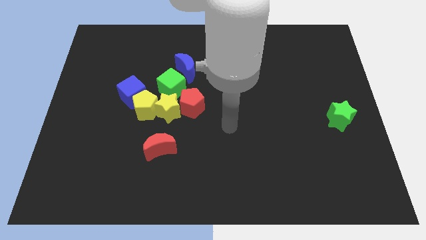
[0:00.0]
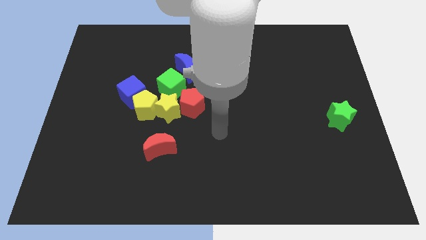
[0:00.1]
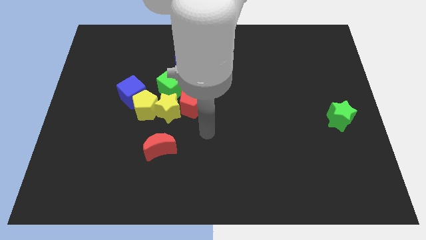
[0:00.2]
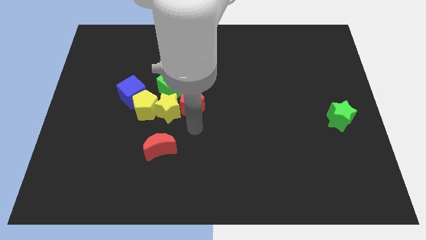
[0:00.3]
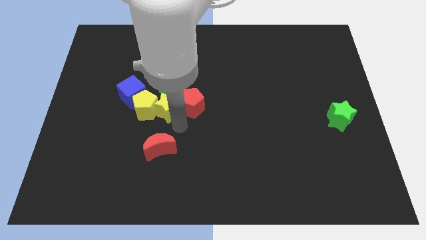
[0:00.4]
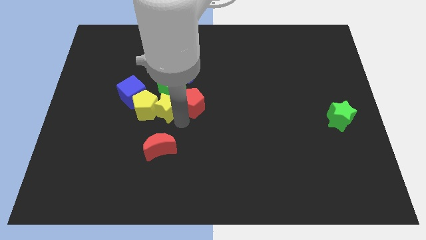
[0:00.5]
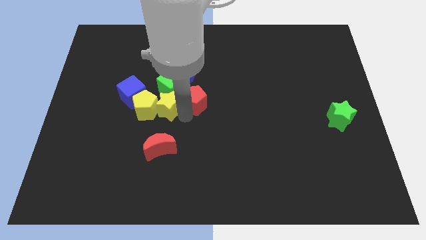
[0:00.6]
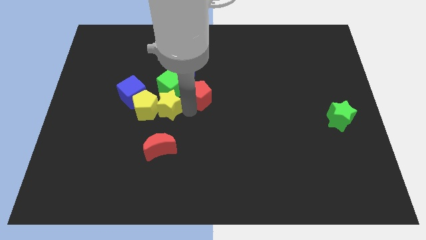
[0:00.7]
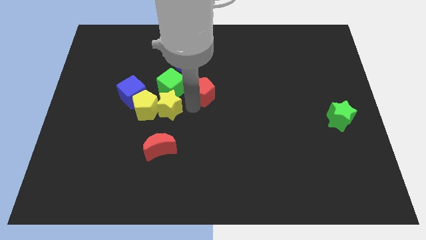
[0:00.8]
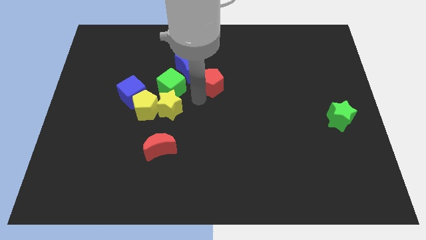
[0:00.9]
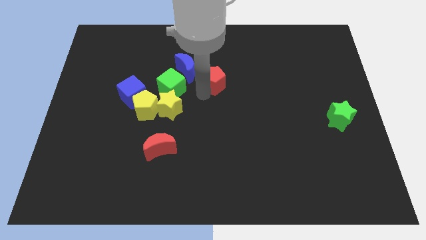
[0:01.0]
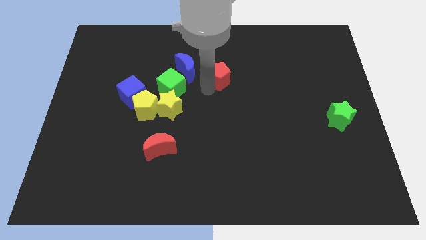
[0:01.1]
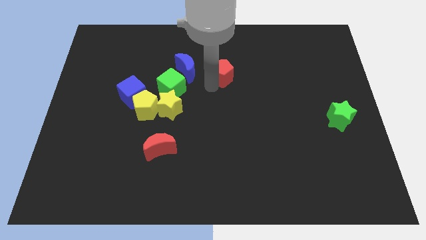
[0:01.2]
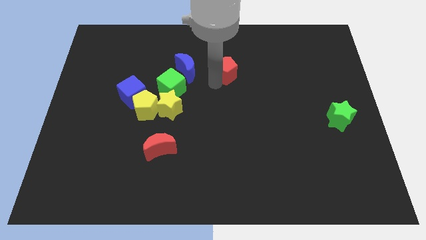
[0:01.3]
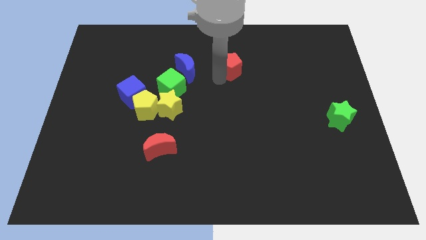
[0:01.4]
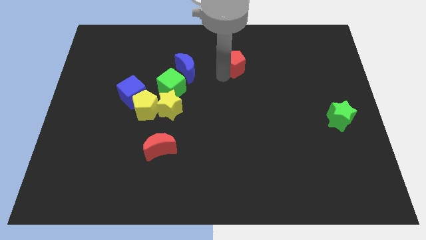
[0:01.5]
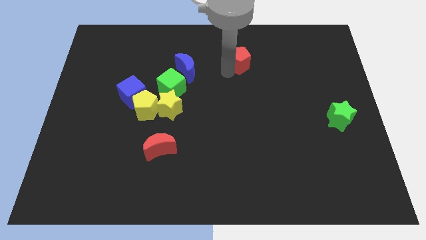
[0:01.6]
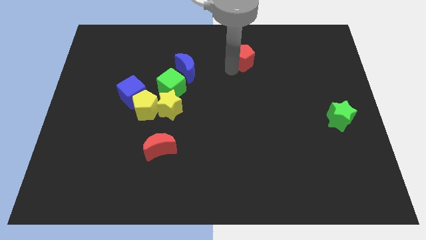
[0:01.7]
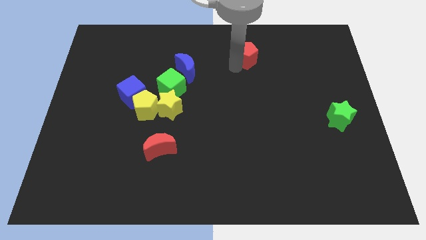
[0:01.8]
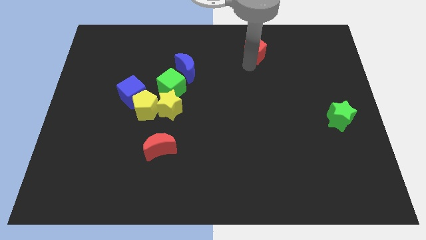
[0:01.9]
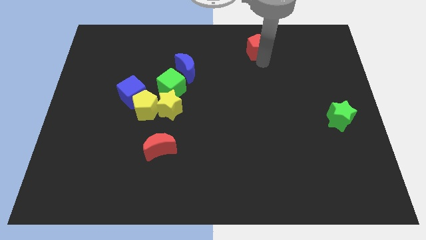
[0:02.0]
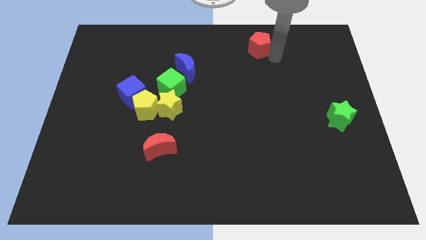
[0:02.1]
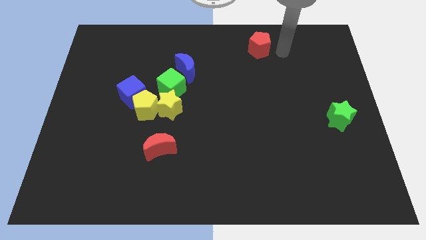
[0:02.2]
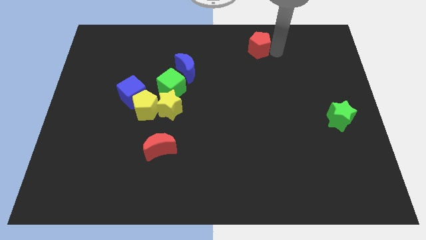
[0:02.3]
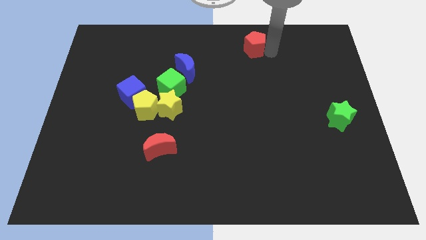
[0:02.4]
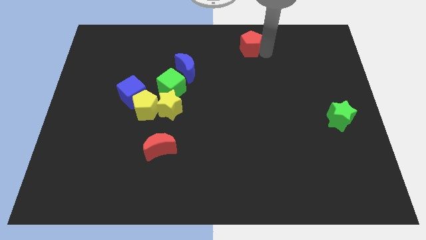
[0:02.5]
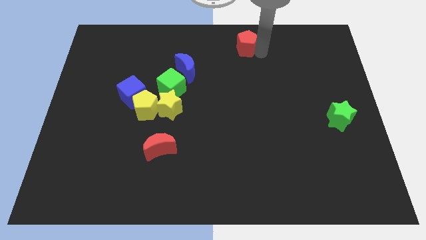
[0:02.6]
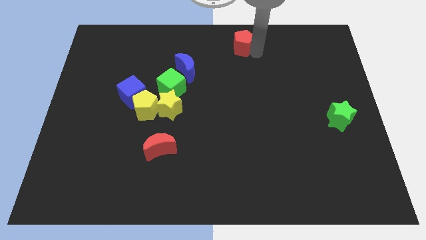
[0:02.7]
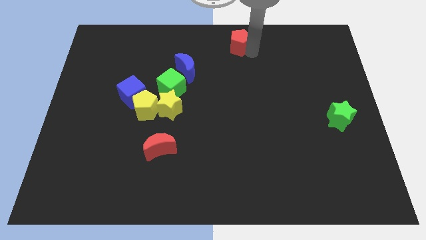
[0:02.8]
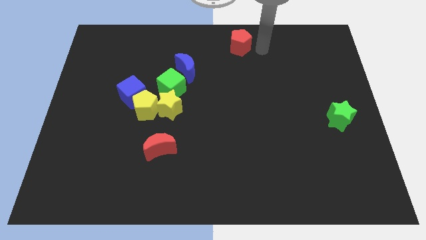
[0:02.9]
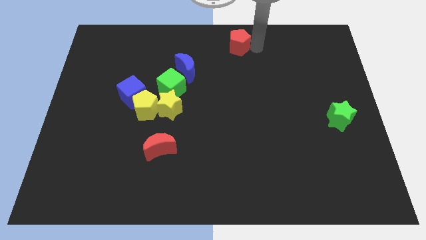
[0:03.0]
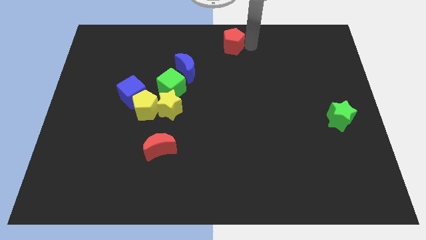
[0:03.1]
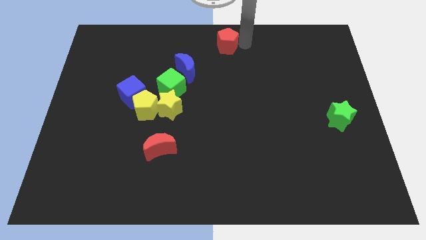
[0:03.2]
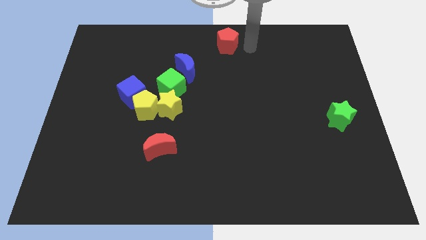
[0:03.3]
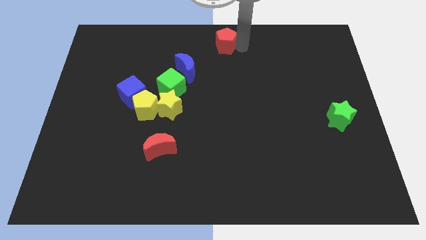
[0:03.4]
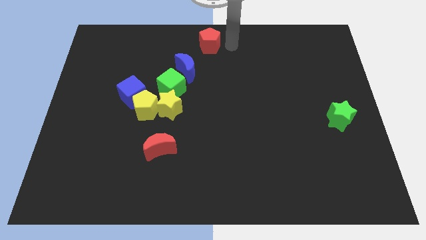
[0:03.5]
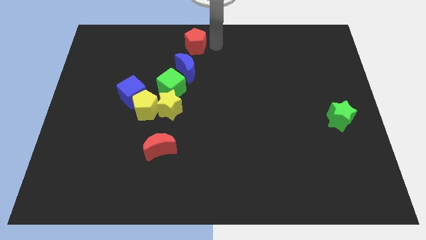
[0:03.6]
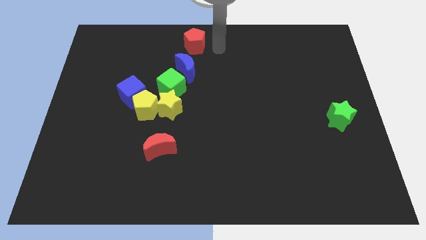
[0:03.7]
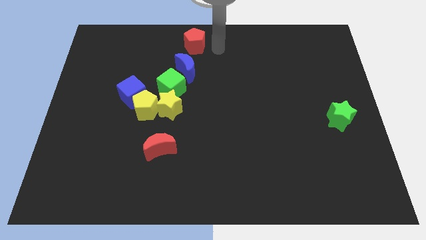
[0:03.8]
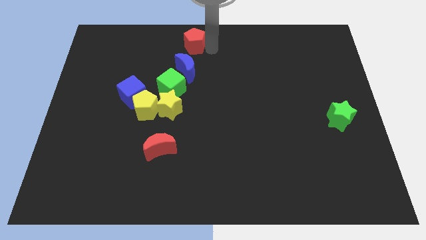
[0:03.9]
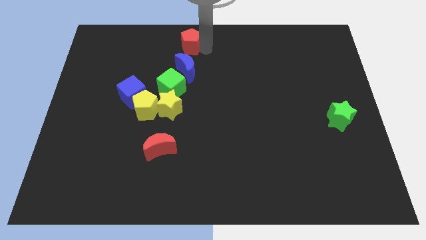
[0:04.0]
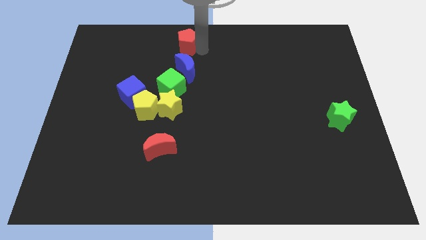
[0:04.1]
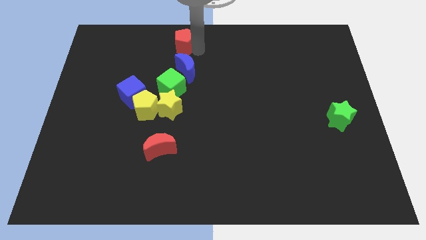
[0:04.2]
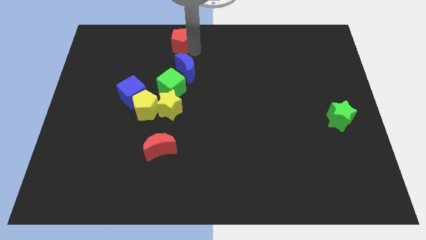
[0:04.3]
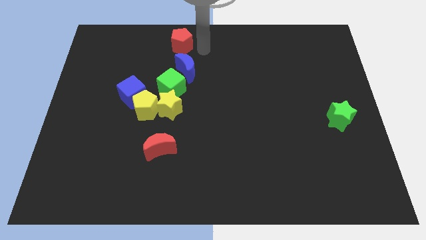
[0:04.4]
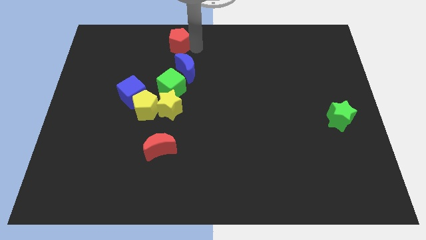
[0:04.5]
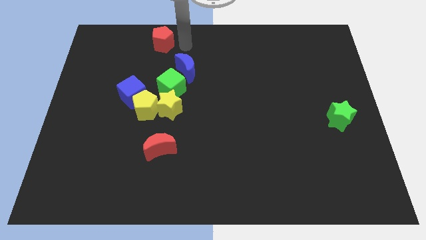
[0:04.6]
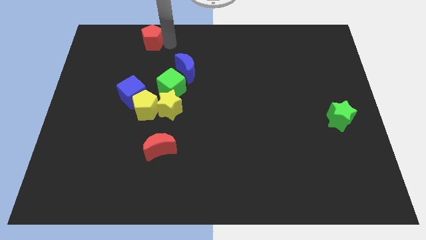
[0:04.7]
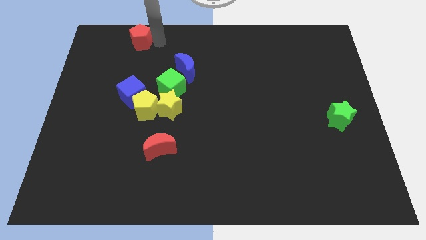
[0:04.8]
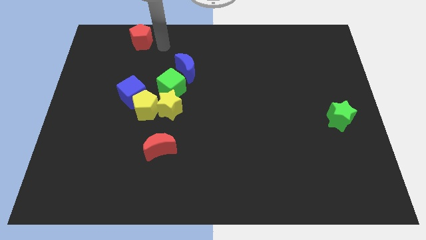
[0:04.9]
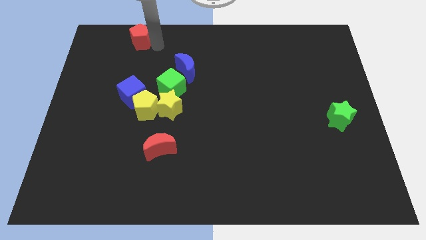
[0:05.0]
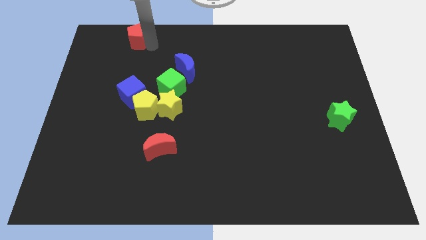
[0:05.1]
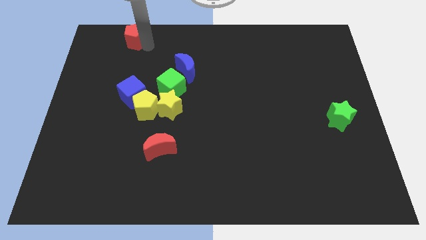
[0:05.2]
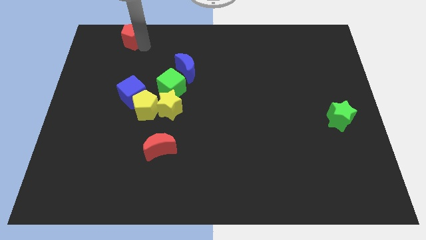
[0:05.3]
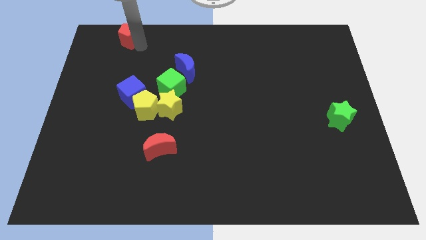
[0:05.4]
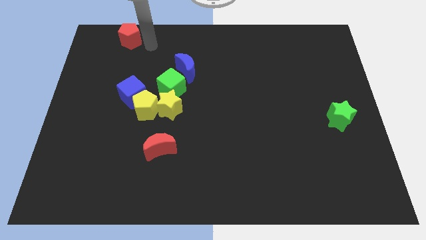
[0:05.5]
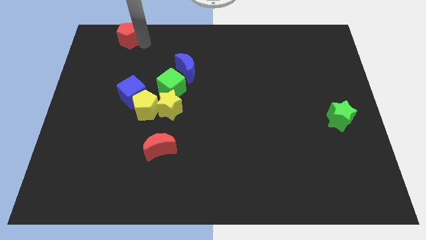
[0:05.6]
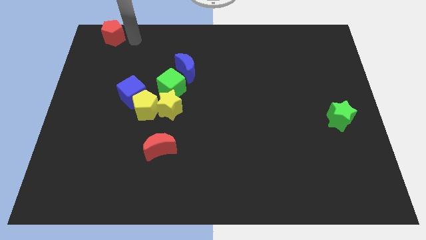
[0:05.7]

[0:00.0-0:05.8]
push the red pentagon to the top left corner
